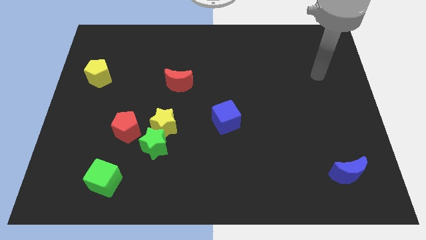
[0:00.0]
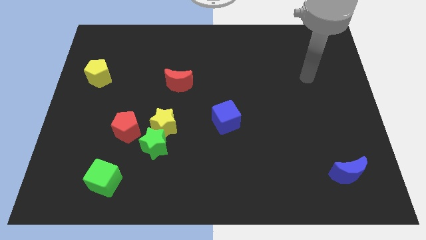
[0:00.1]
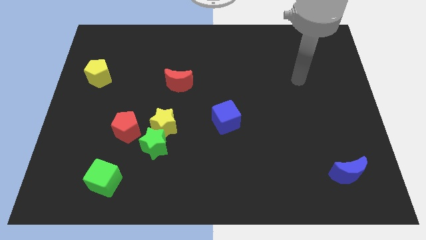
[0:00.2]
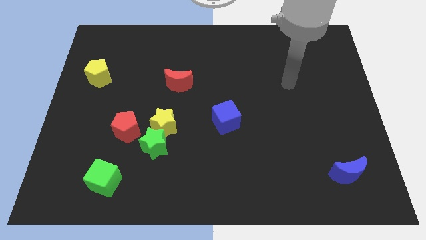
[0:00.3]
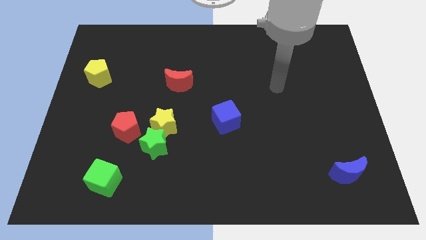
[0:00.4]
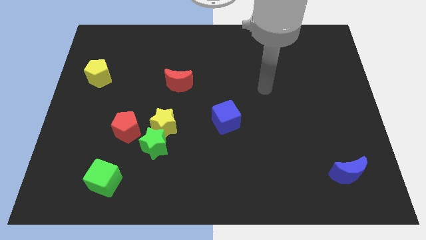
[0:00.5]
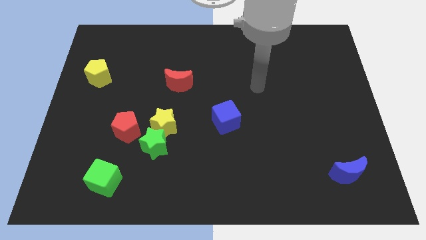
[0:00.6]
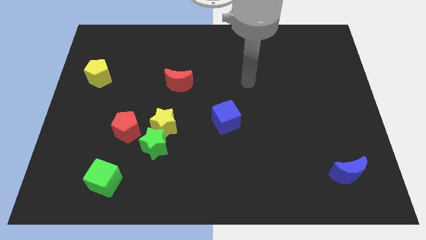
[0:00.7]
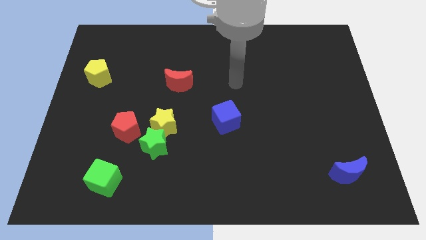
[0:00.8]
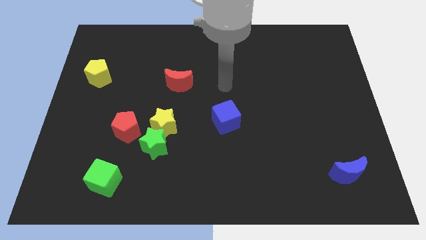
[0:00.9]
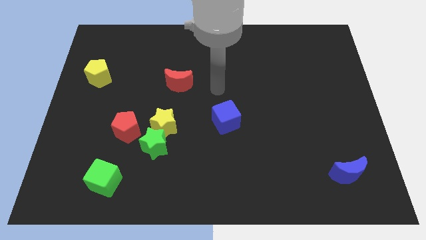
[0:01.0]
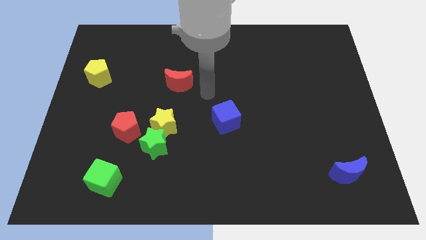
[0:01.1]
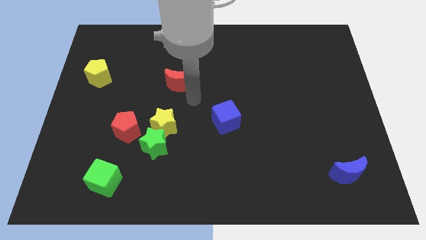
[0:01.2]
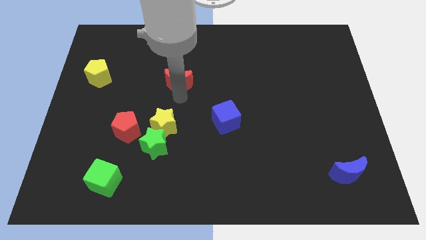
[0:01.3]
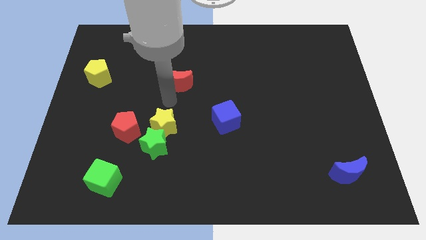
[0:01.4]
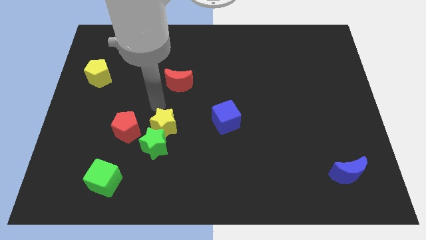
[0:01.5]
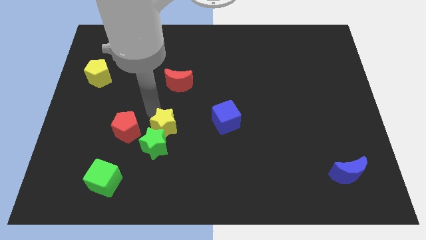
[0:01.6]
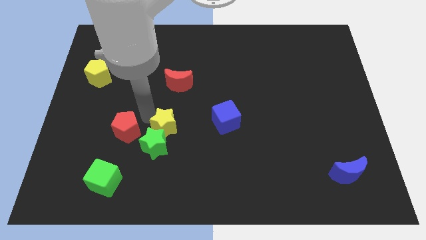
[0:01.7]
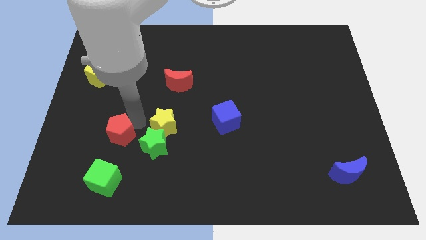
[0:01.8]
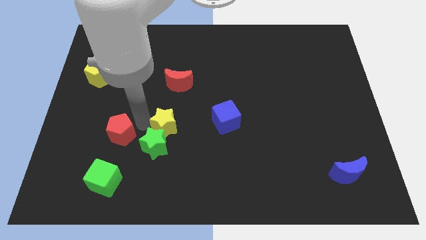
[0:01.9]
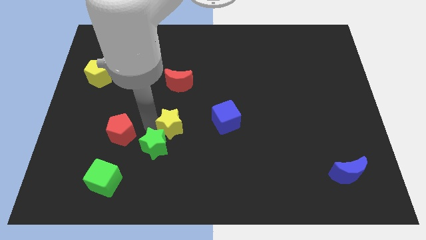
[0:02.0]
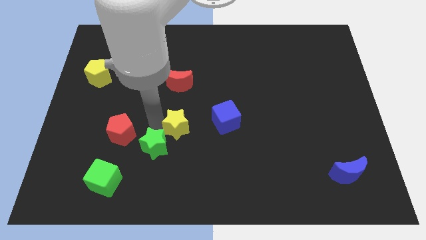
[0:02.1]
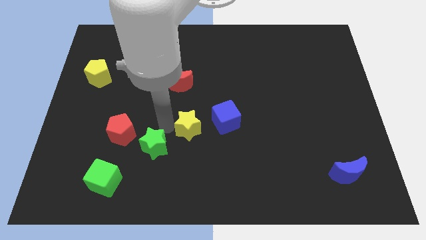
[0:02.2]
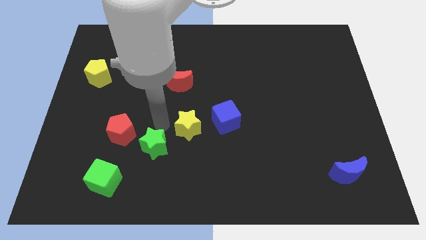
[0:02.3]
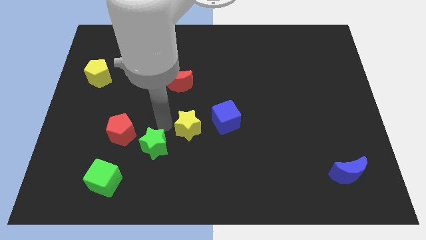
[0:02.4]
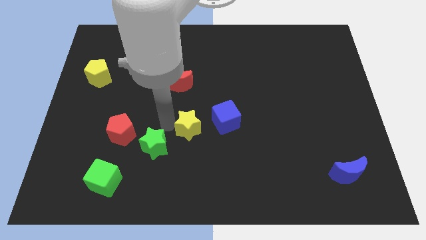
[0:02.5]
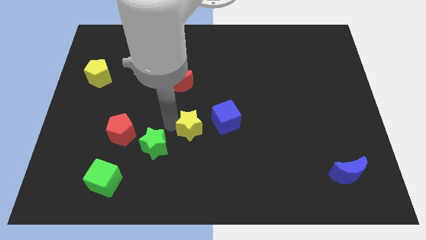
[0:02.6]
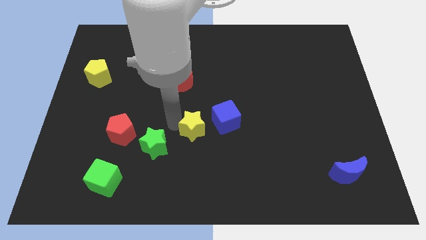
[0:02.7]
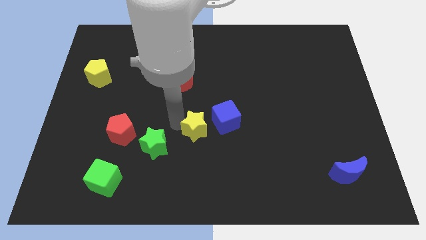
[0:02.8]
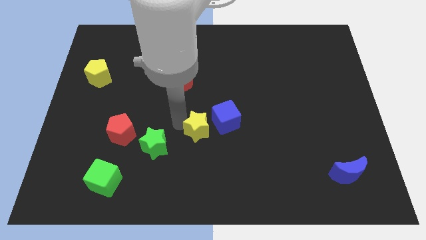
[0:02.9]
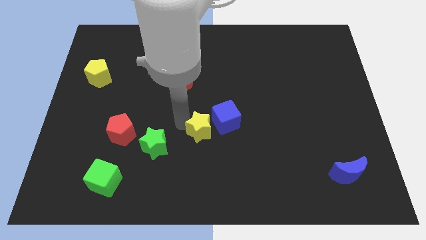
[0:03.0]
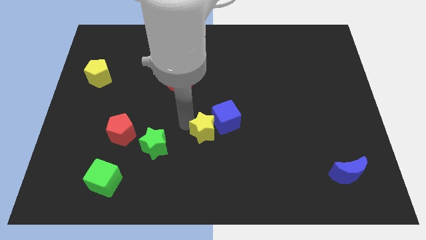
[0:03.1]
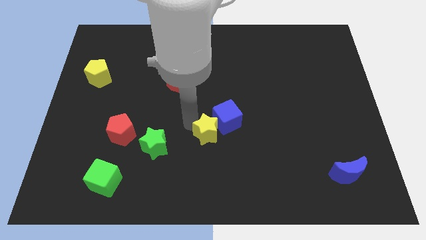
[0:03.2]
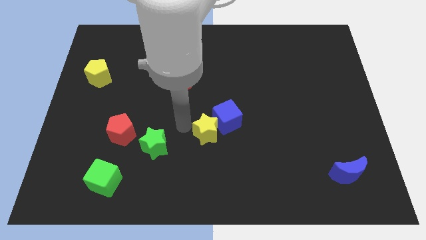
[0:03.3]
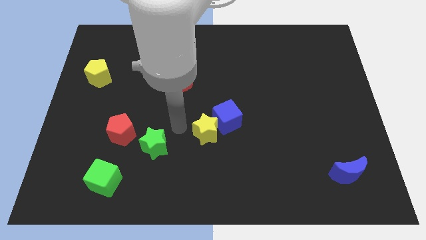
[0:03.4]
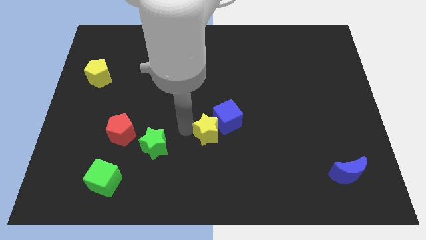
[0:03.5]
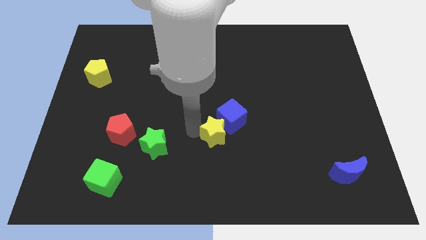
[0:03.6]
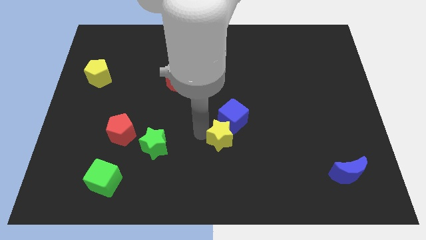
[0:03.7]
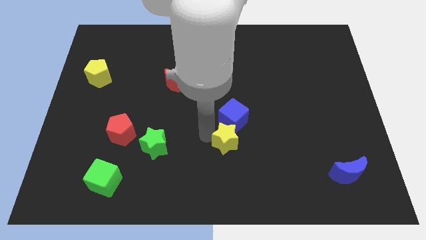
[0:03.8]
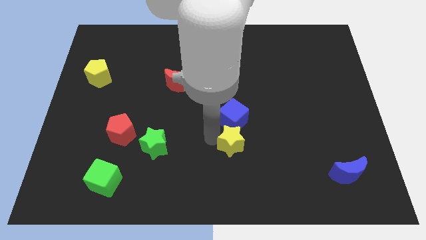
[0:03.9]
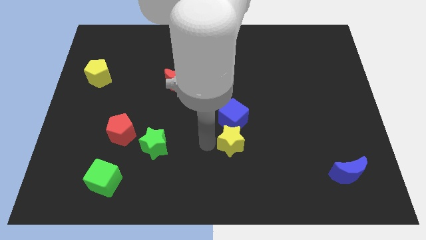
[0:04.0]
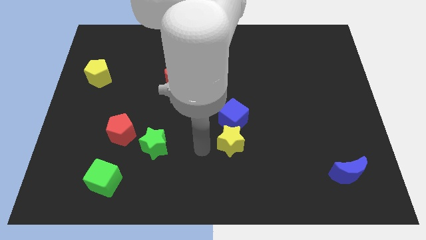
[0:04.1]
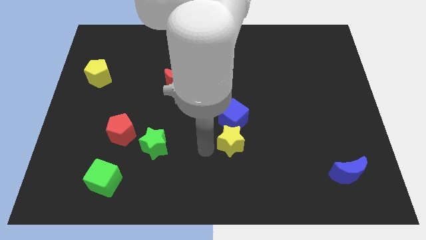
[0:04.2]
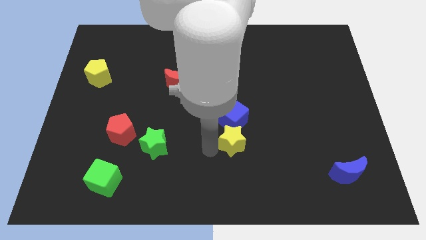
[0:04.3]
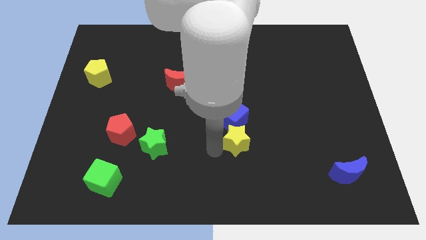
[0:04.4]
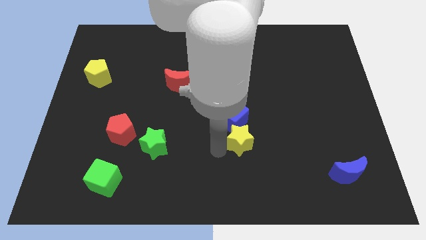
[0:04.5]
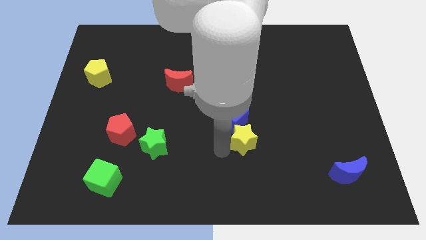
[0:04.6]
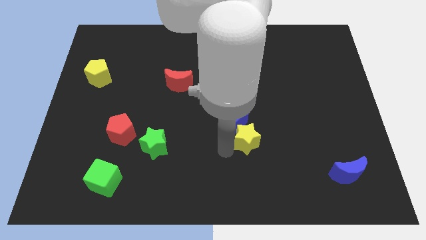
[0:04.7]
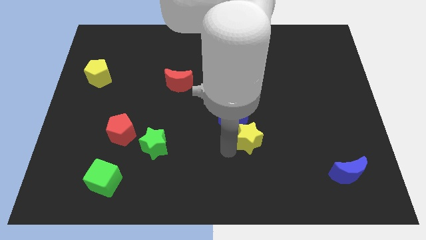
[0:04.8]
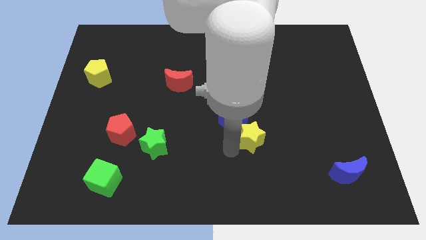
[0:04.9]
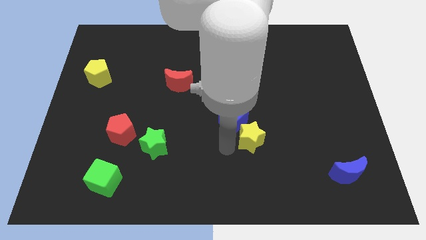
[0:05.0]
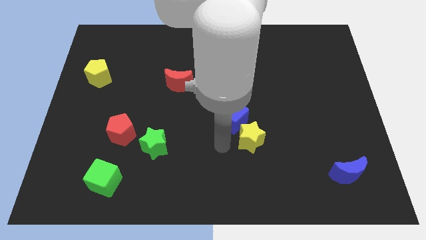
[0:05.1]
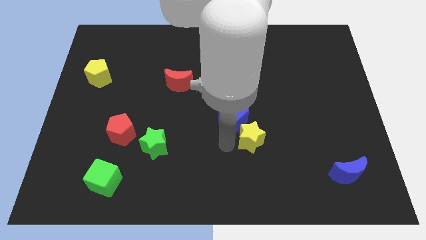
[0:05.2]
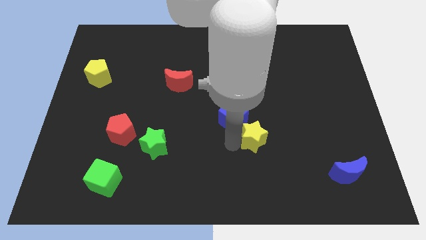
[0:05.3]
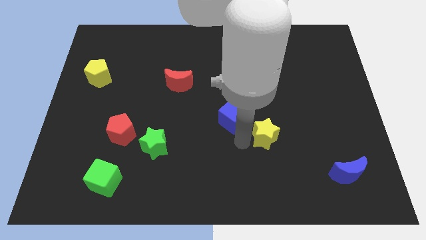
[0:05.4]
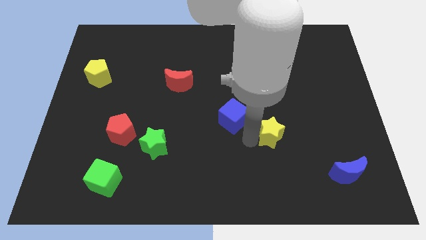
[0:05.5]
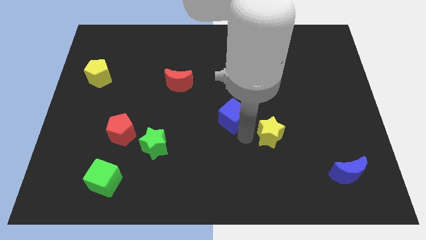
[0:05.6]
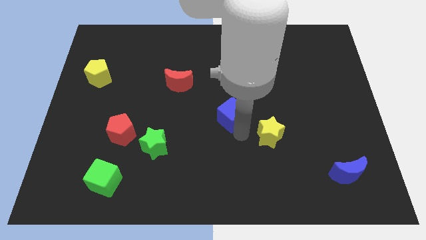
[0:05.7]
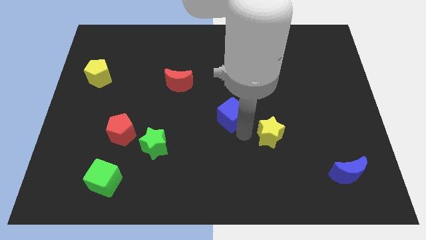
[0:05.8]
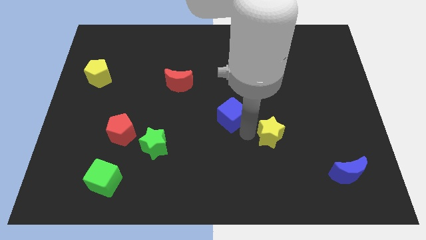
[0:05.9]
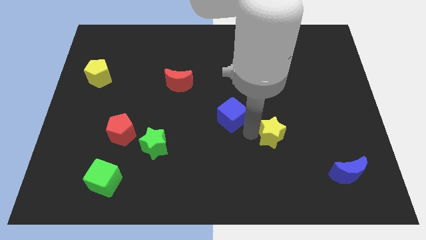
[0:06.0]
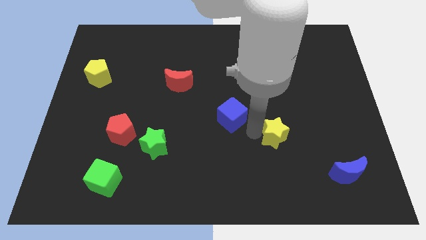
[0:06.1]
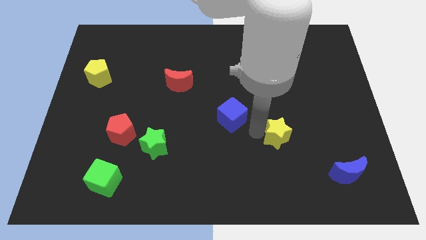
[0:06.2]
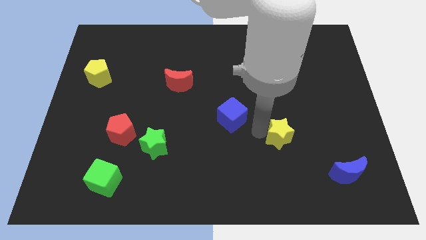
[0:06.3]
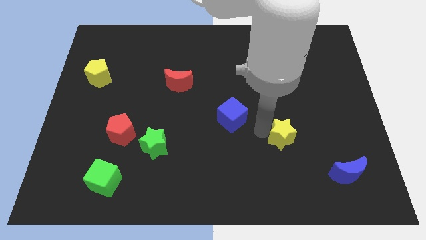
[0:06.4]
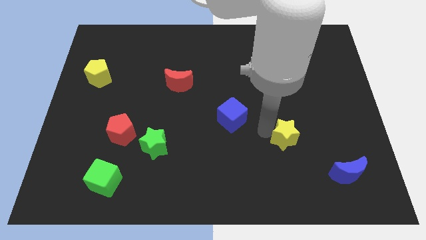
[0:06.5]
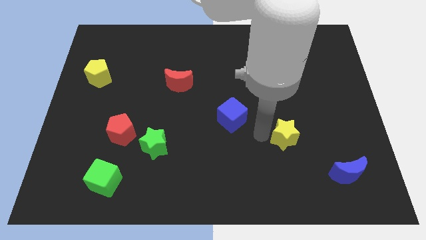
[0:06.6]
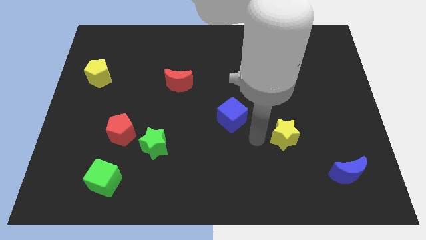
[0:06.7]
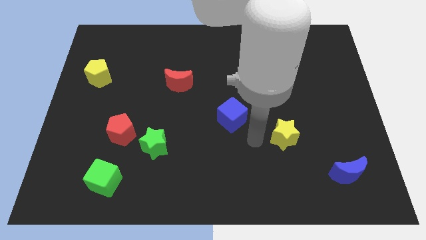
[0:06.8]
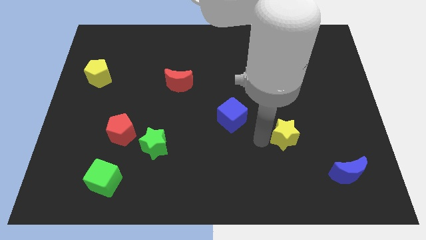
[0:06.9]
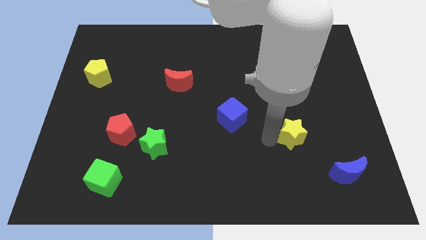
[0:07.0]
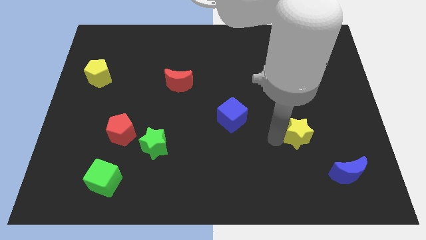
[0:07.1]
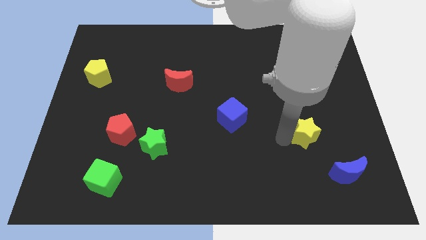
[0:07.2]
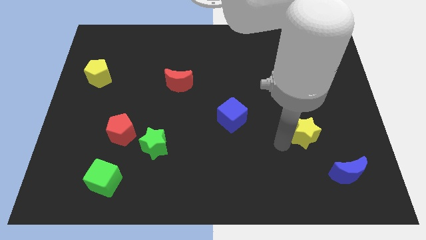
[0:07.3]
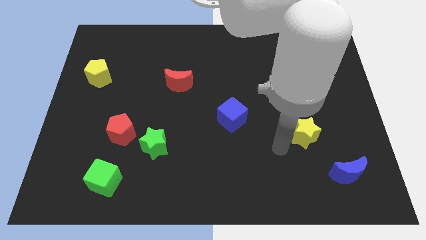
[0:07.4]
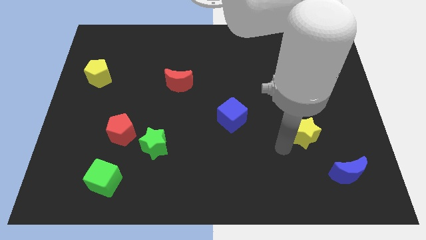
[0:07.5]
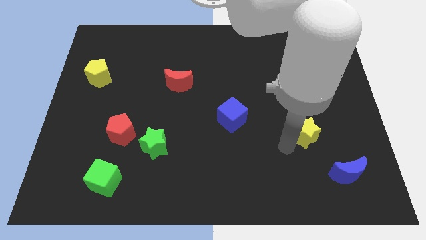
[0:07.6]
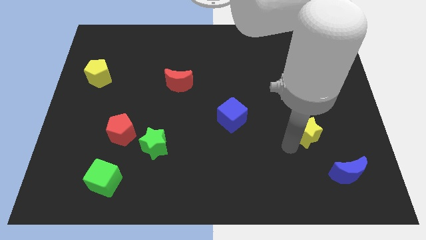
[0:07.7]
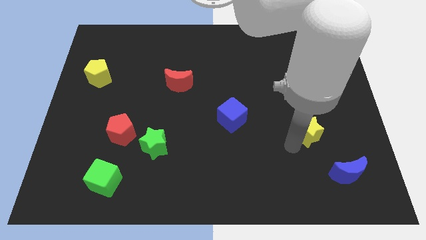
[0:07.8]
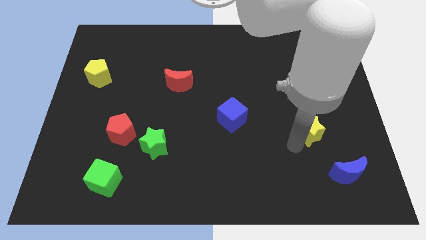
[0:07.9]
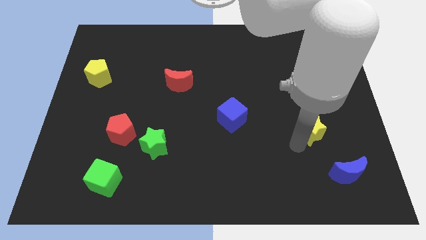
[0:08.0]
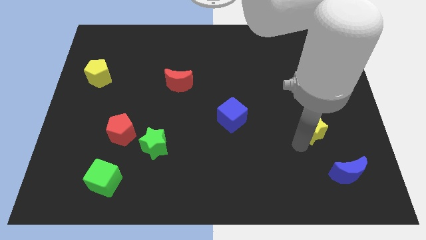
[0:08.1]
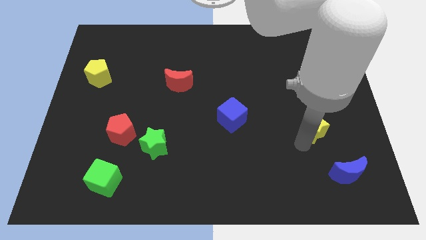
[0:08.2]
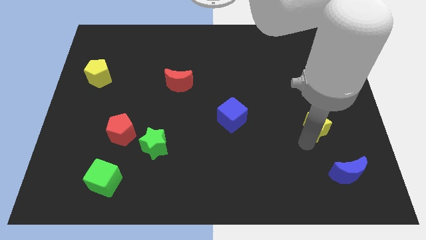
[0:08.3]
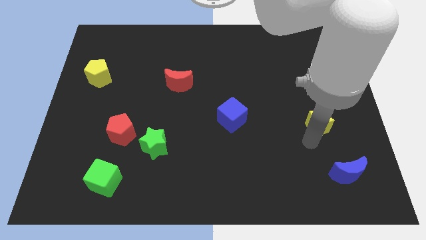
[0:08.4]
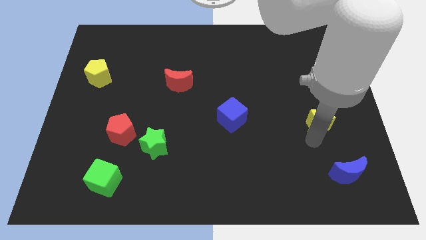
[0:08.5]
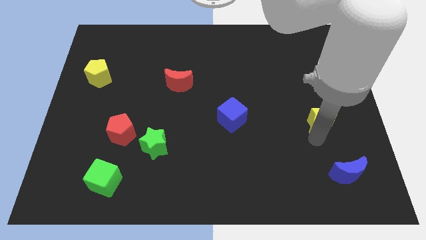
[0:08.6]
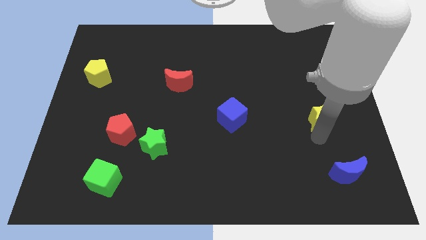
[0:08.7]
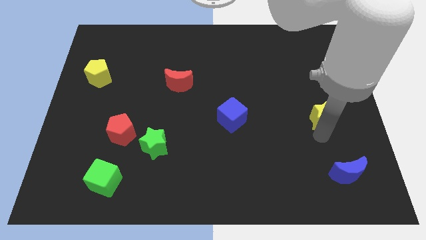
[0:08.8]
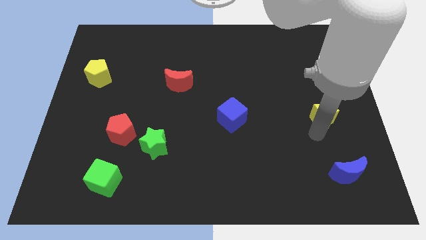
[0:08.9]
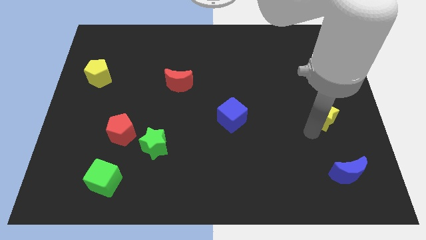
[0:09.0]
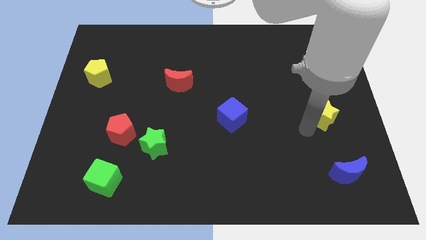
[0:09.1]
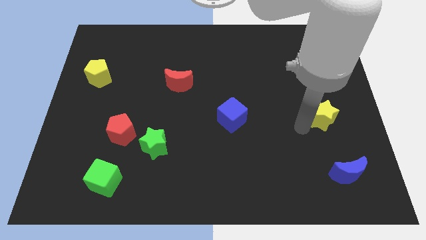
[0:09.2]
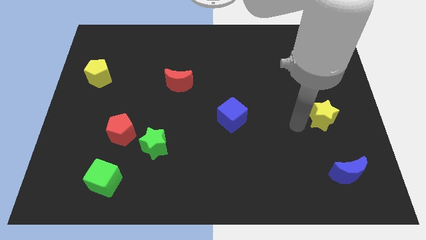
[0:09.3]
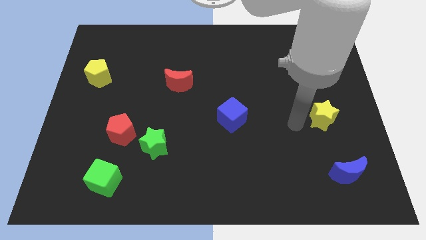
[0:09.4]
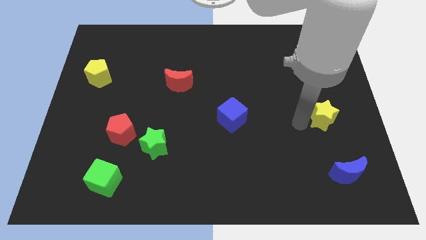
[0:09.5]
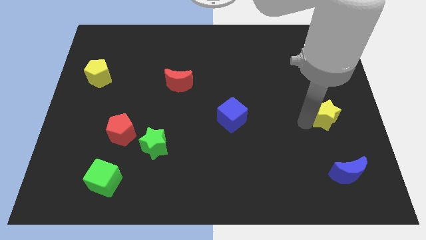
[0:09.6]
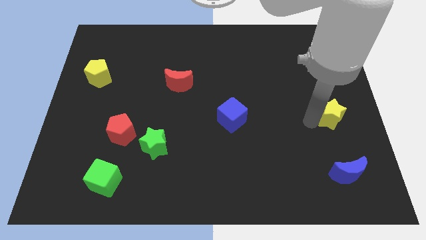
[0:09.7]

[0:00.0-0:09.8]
push the yellow star to the center right
